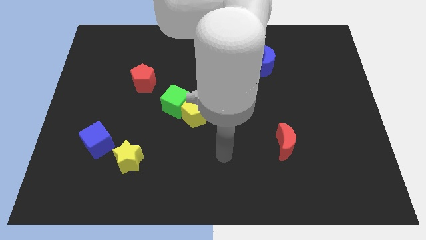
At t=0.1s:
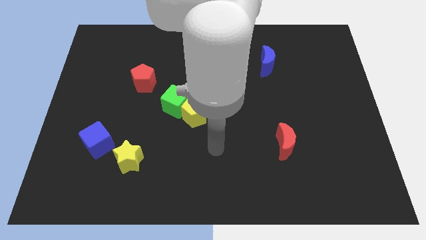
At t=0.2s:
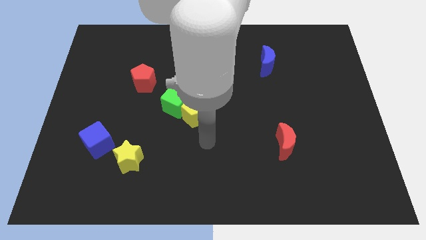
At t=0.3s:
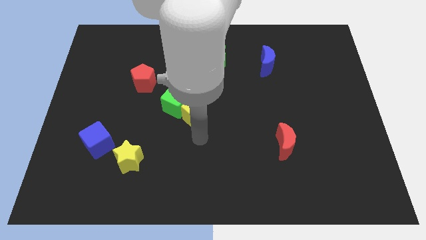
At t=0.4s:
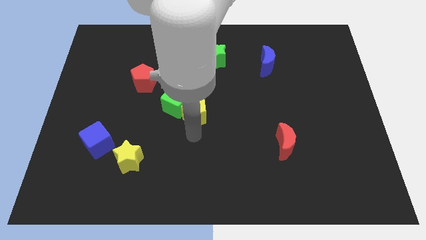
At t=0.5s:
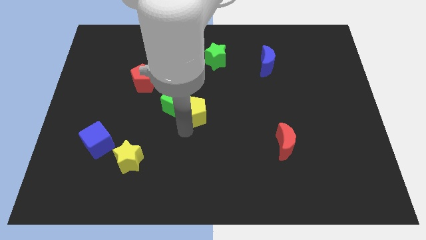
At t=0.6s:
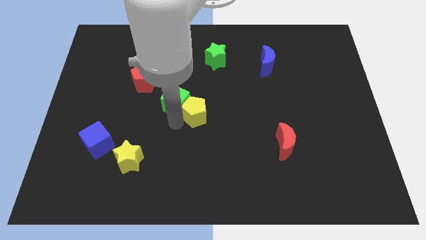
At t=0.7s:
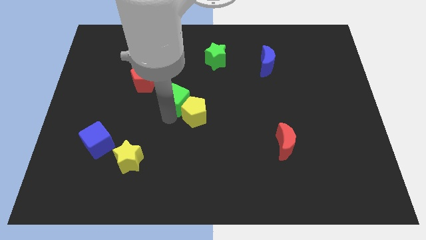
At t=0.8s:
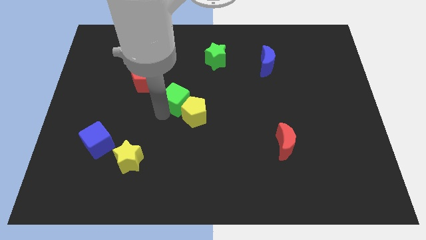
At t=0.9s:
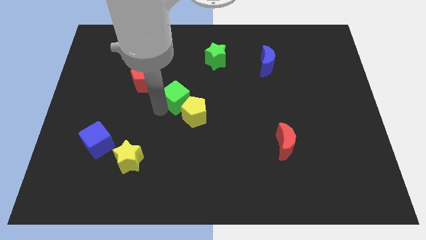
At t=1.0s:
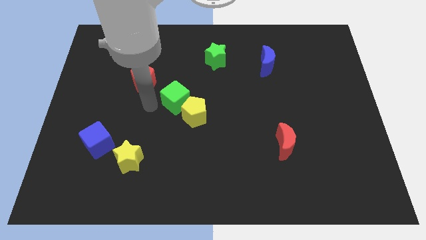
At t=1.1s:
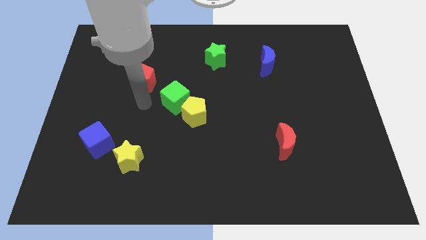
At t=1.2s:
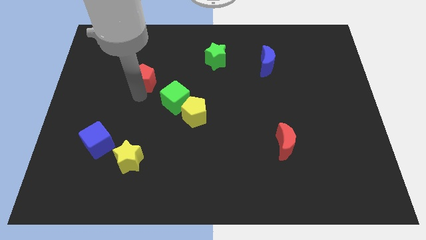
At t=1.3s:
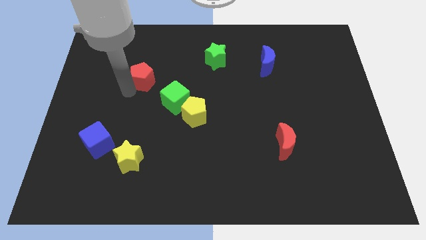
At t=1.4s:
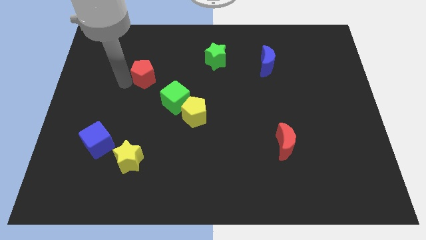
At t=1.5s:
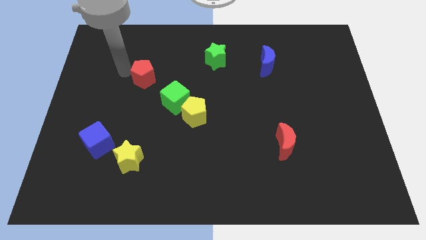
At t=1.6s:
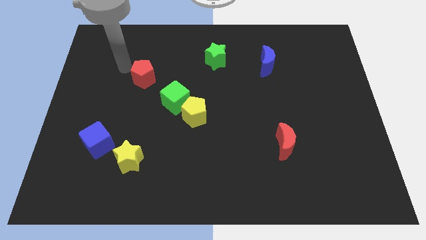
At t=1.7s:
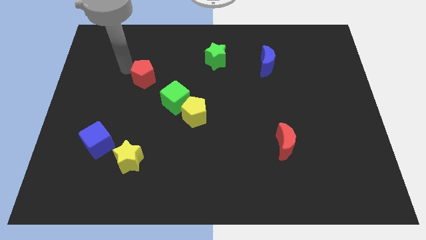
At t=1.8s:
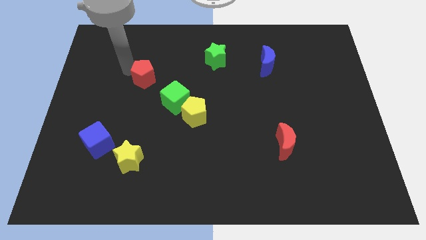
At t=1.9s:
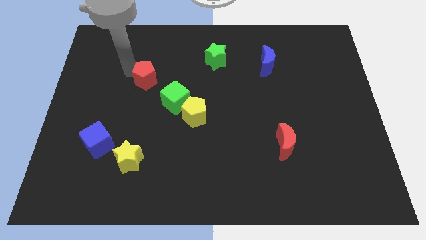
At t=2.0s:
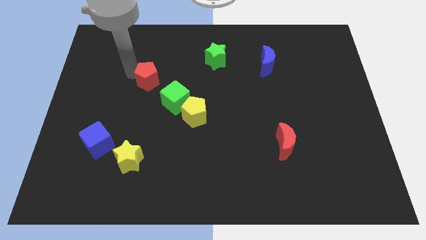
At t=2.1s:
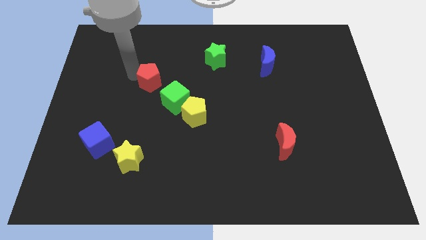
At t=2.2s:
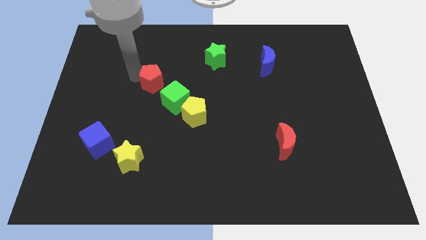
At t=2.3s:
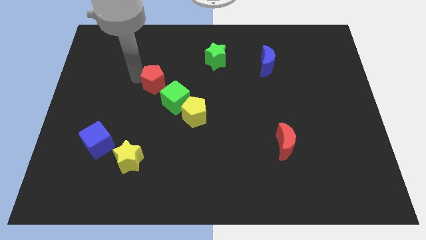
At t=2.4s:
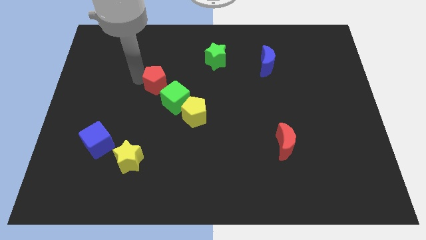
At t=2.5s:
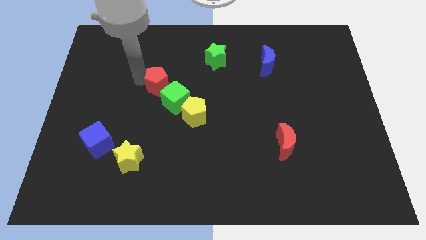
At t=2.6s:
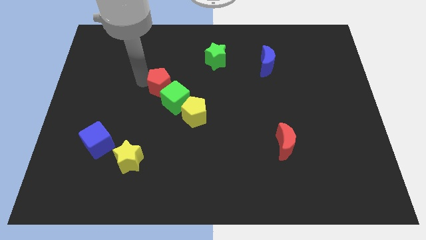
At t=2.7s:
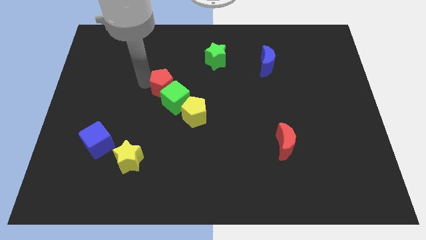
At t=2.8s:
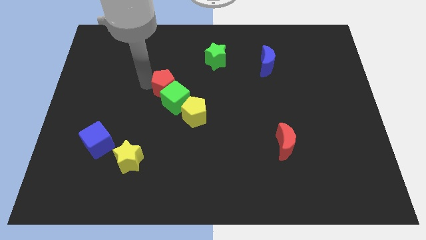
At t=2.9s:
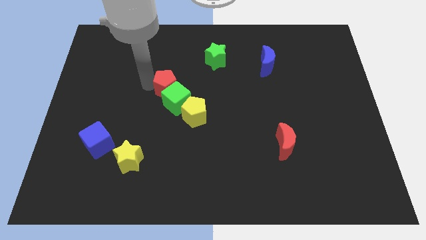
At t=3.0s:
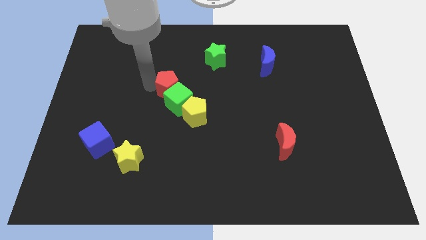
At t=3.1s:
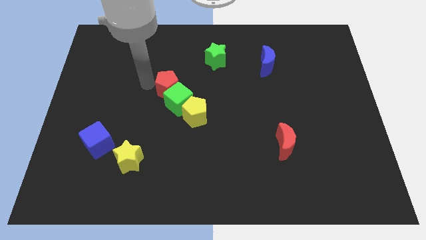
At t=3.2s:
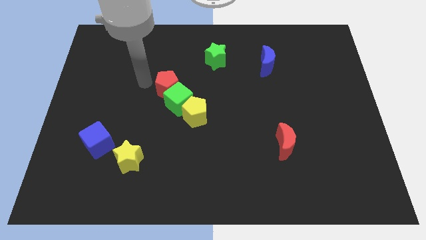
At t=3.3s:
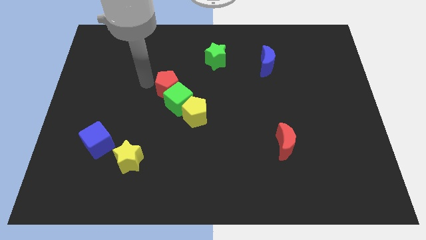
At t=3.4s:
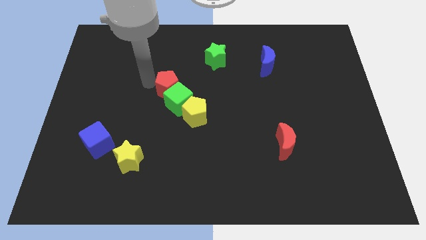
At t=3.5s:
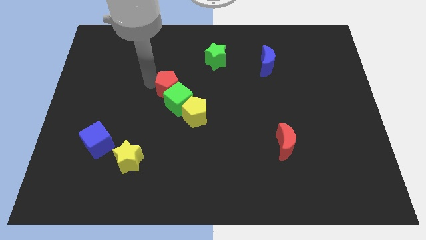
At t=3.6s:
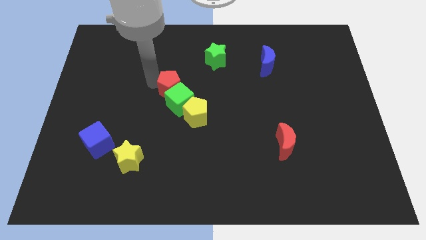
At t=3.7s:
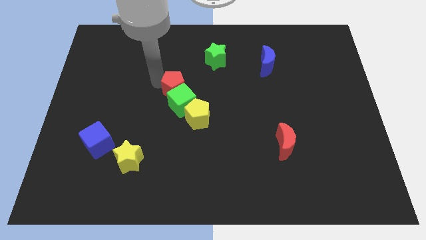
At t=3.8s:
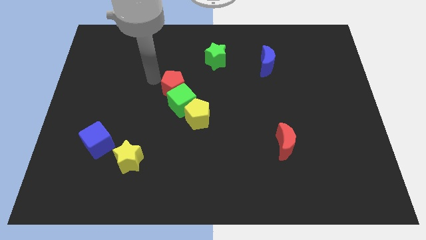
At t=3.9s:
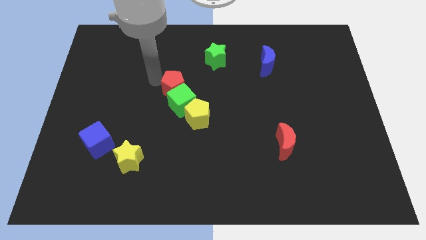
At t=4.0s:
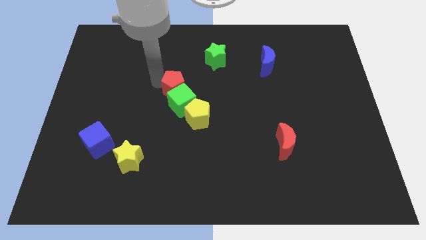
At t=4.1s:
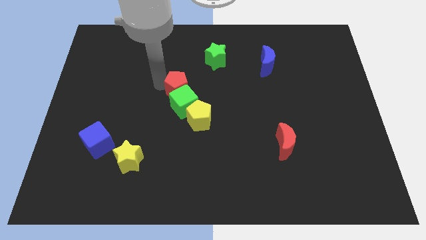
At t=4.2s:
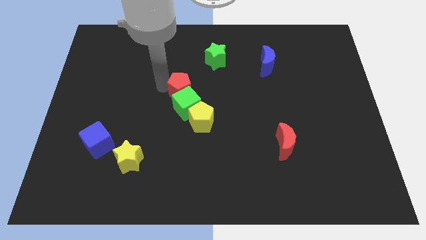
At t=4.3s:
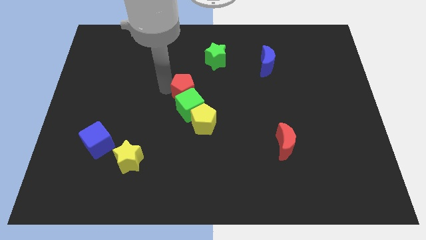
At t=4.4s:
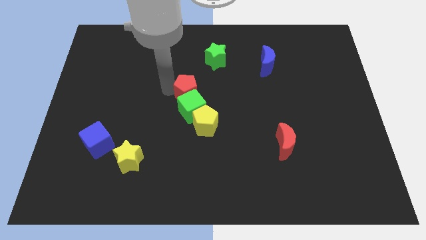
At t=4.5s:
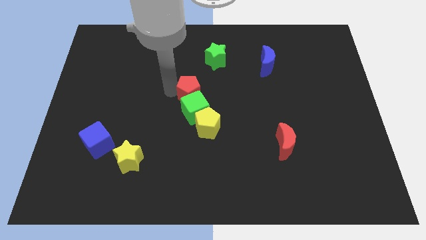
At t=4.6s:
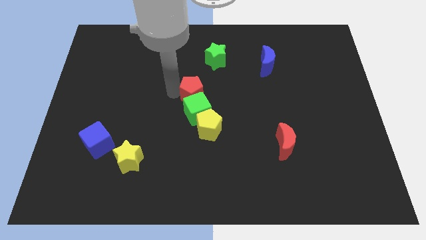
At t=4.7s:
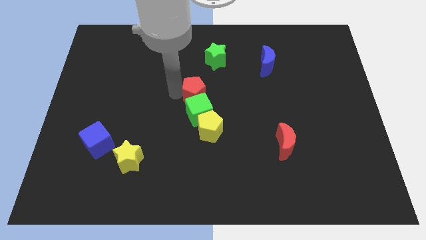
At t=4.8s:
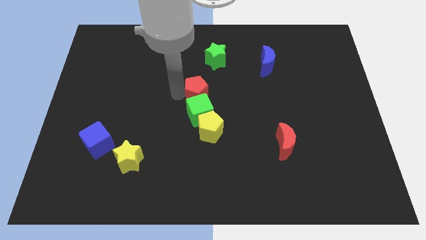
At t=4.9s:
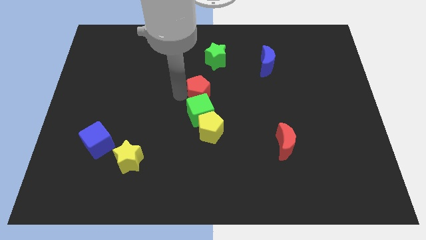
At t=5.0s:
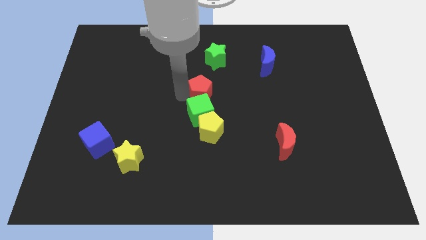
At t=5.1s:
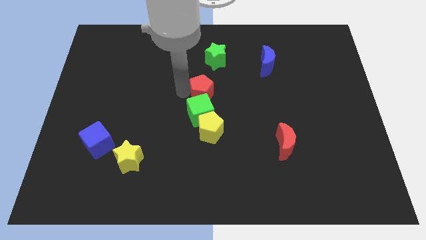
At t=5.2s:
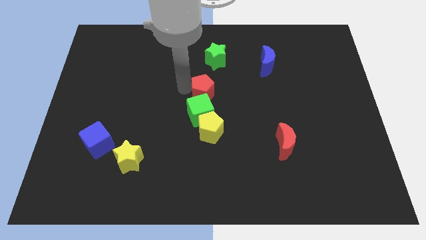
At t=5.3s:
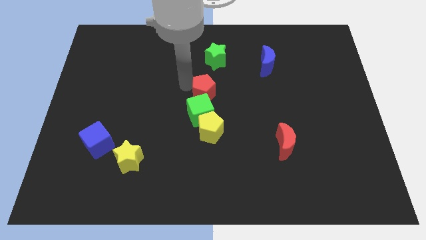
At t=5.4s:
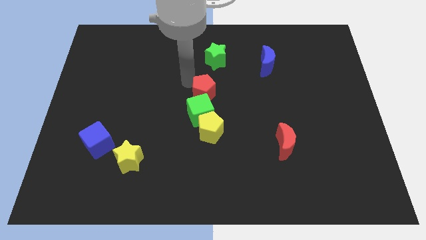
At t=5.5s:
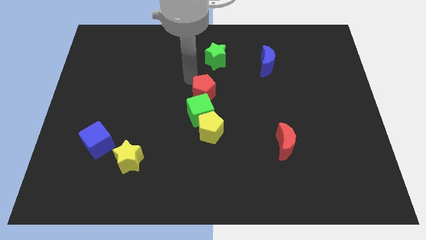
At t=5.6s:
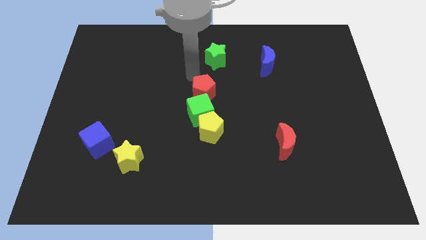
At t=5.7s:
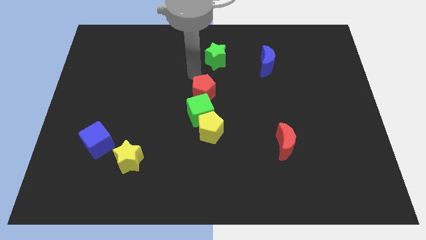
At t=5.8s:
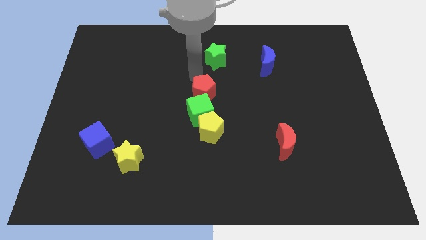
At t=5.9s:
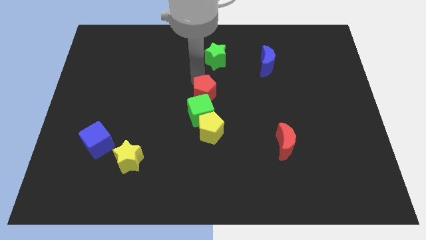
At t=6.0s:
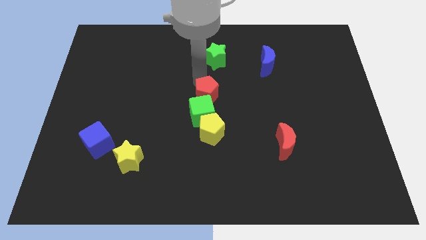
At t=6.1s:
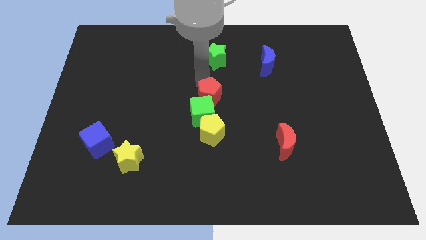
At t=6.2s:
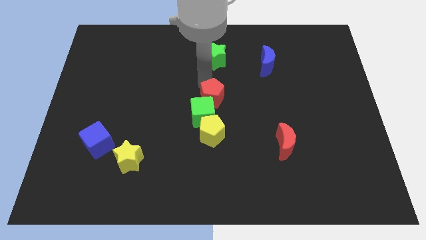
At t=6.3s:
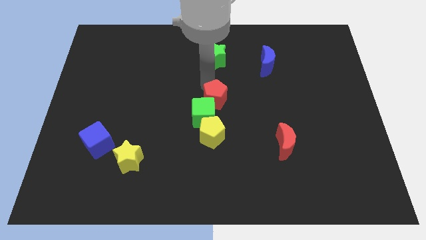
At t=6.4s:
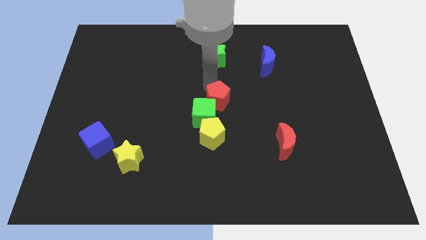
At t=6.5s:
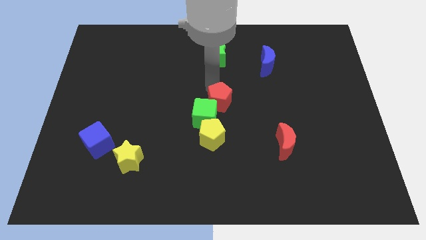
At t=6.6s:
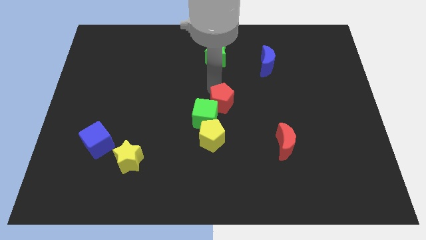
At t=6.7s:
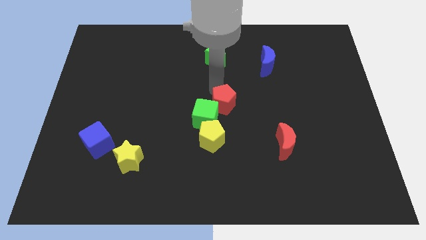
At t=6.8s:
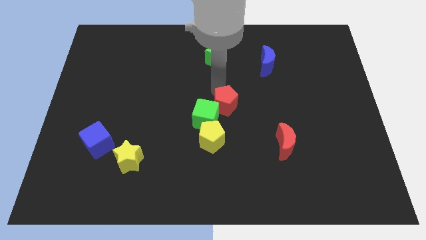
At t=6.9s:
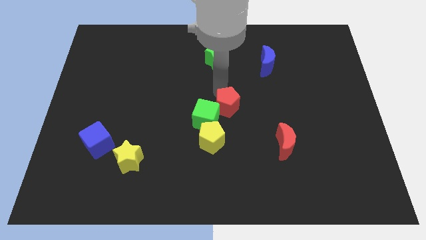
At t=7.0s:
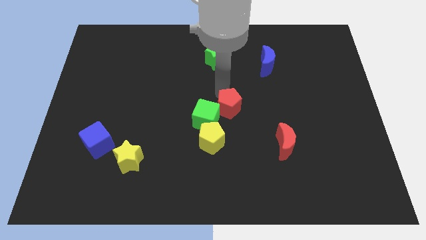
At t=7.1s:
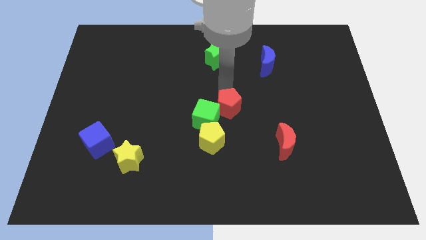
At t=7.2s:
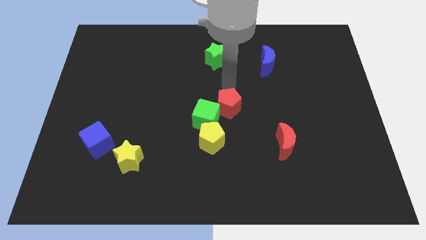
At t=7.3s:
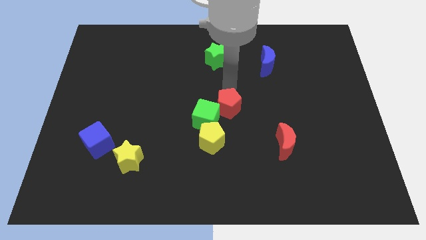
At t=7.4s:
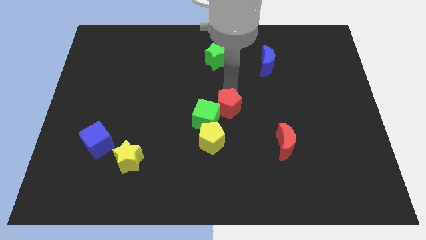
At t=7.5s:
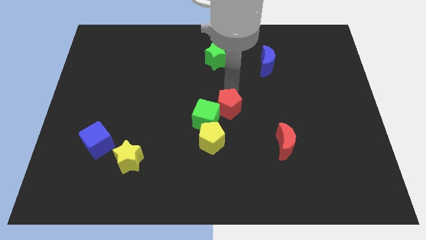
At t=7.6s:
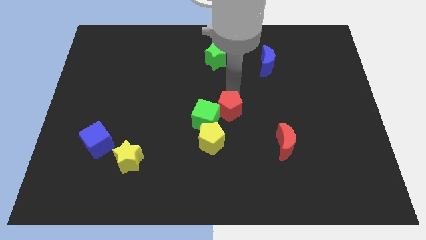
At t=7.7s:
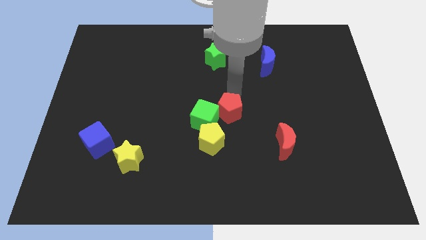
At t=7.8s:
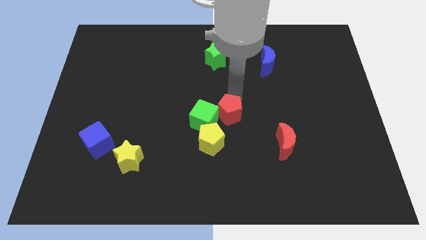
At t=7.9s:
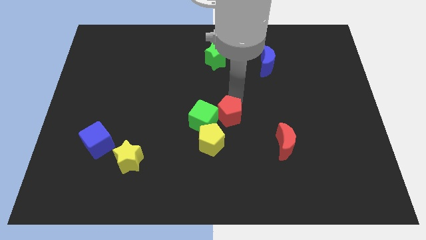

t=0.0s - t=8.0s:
push the red pentagon downwards and to the right

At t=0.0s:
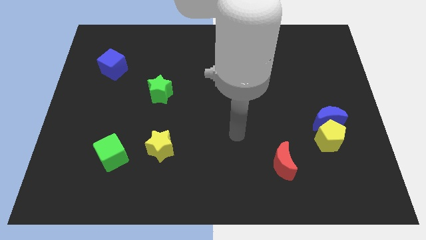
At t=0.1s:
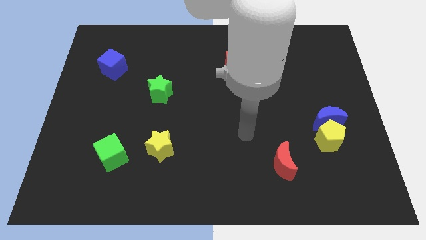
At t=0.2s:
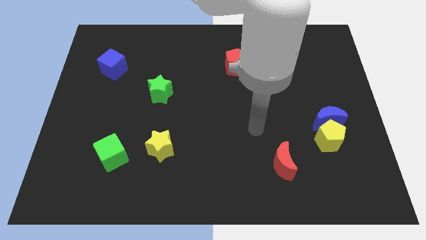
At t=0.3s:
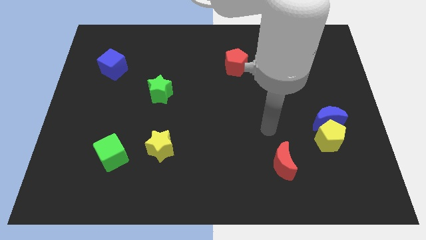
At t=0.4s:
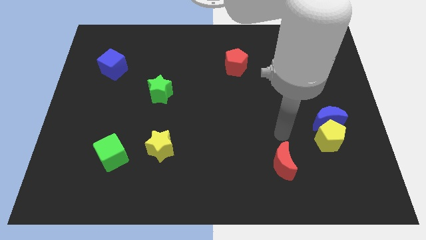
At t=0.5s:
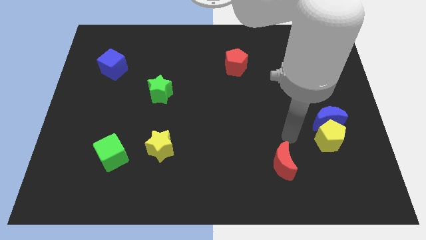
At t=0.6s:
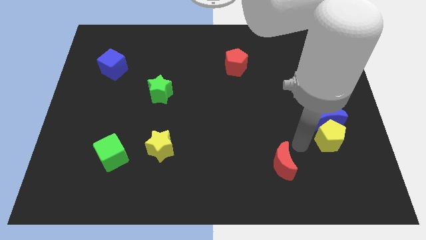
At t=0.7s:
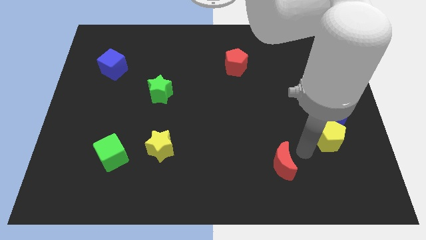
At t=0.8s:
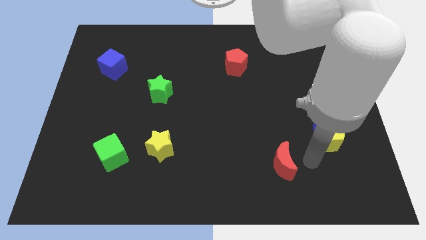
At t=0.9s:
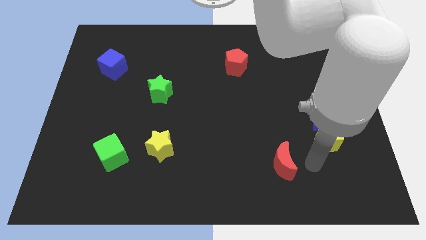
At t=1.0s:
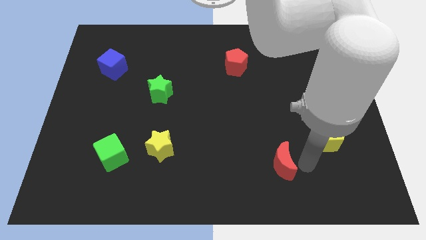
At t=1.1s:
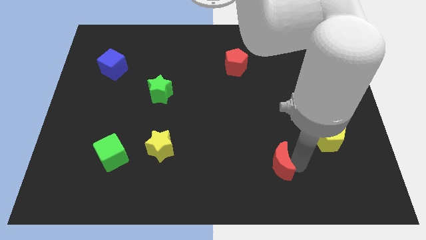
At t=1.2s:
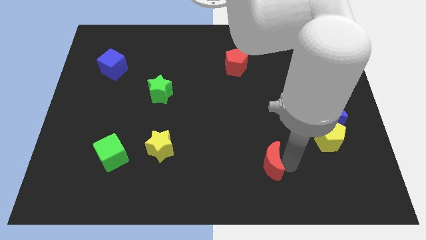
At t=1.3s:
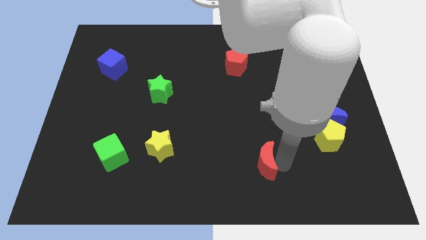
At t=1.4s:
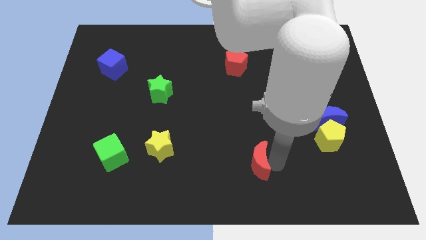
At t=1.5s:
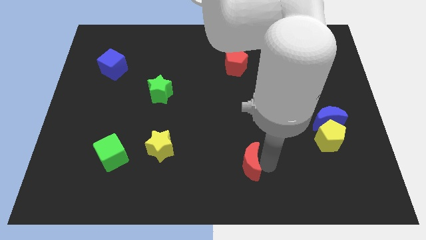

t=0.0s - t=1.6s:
slide the red moon a bit to the left
